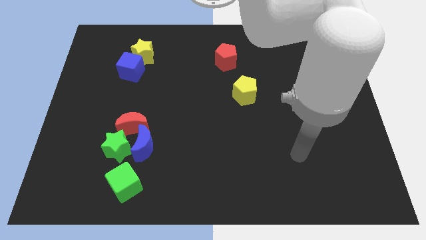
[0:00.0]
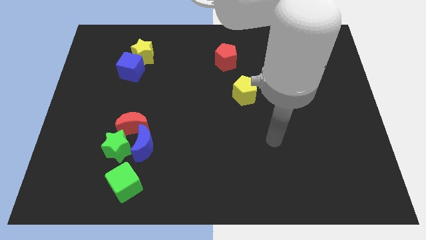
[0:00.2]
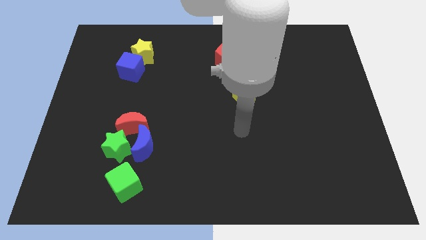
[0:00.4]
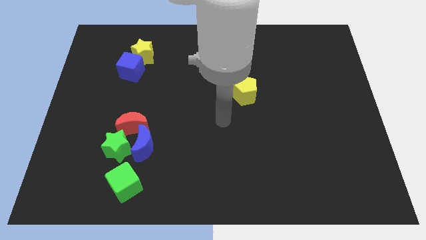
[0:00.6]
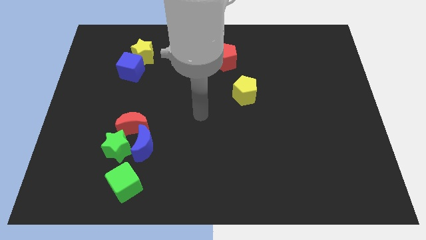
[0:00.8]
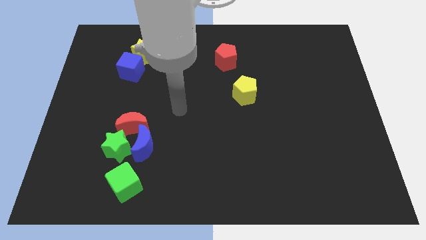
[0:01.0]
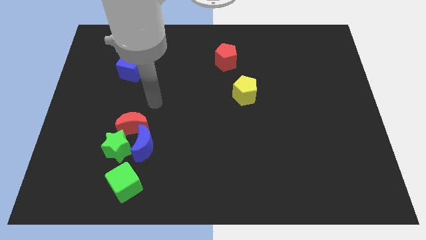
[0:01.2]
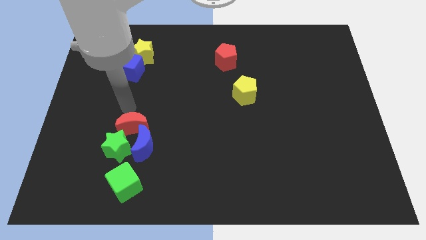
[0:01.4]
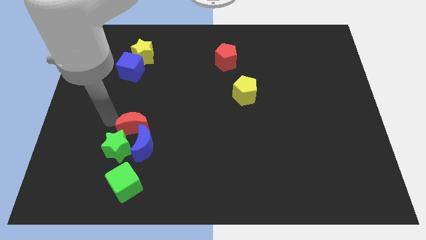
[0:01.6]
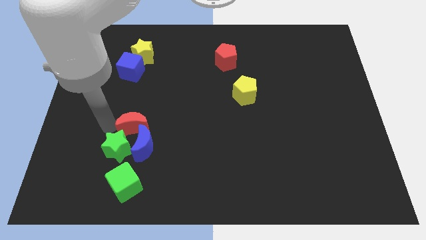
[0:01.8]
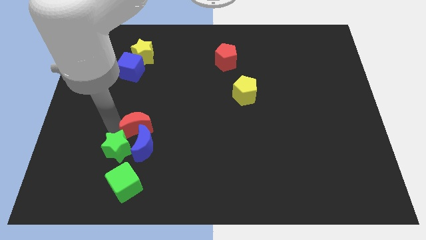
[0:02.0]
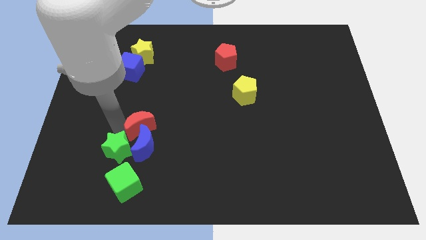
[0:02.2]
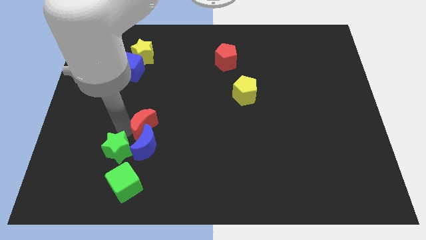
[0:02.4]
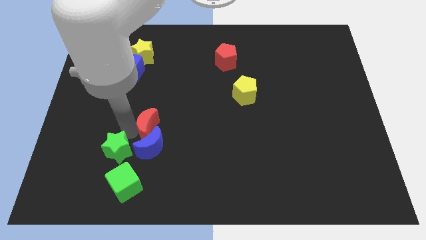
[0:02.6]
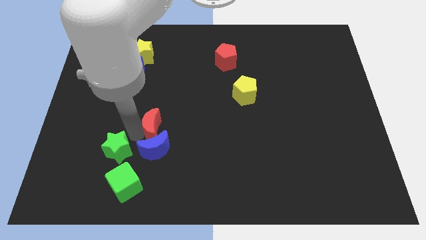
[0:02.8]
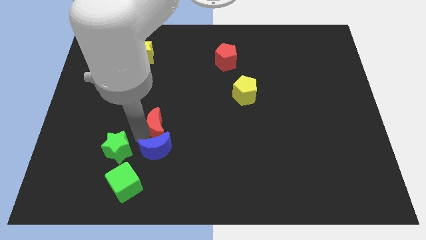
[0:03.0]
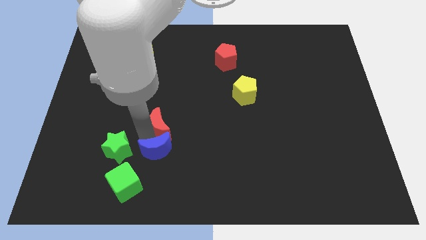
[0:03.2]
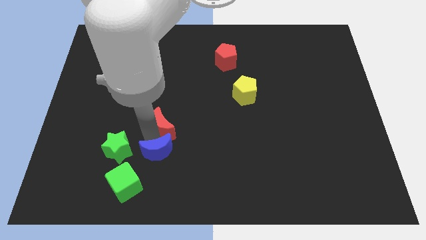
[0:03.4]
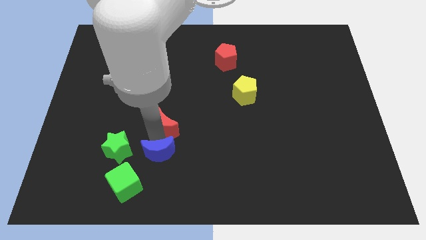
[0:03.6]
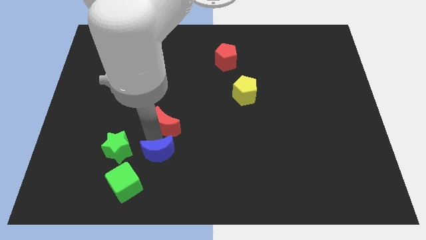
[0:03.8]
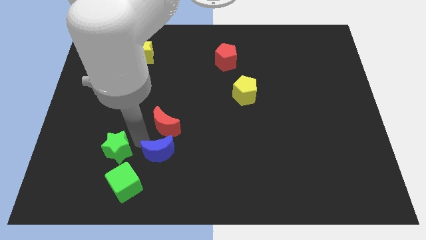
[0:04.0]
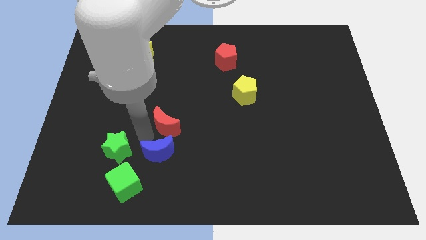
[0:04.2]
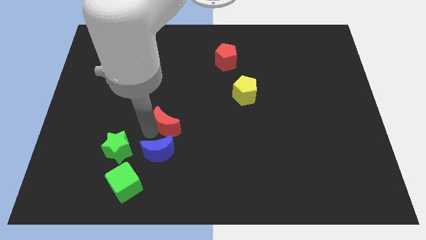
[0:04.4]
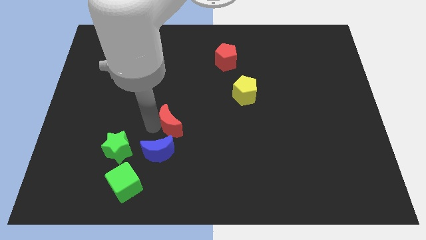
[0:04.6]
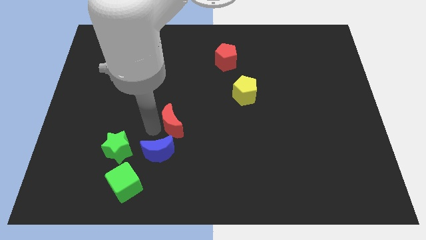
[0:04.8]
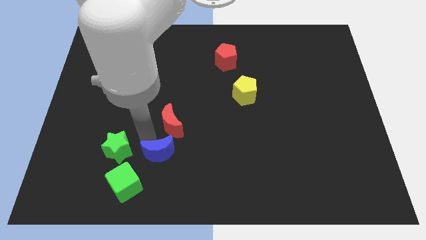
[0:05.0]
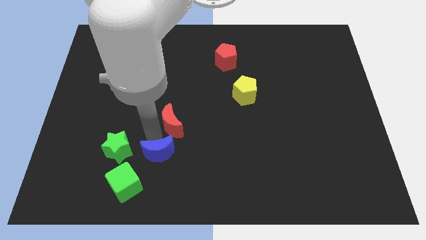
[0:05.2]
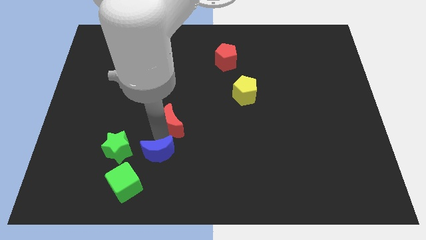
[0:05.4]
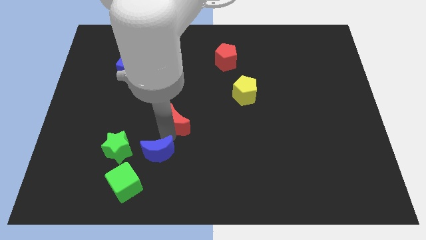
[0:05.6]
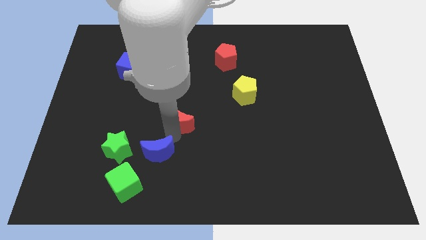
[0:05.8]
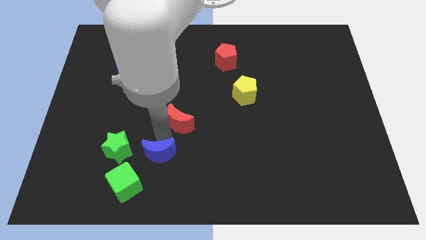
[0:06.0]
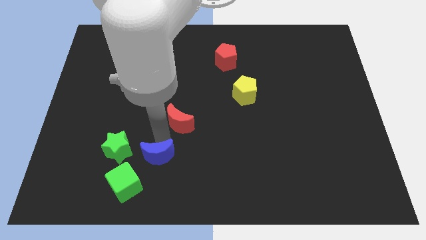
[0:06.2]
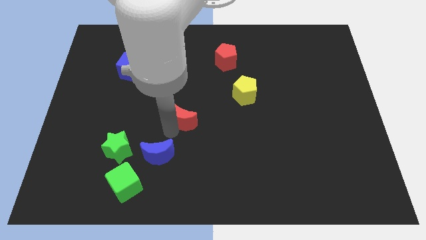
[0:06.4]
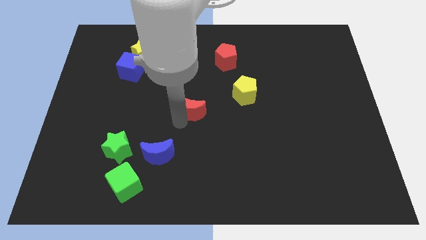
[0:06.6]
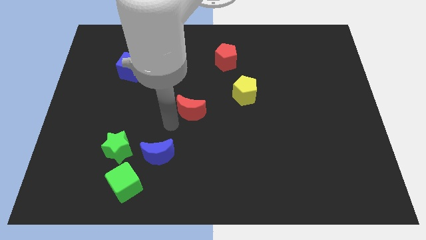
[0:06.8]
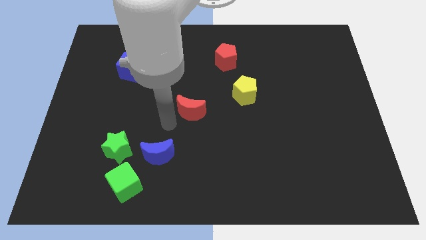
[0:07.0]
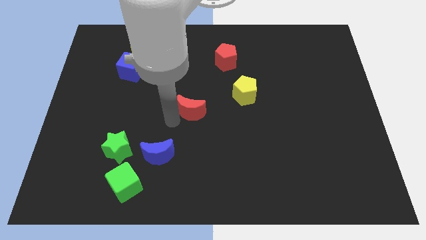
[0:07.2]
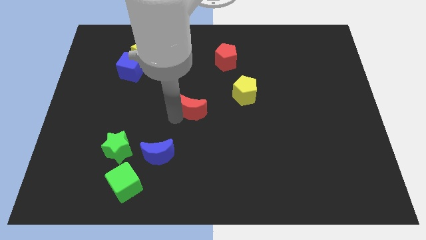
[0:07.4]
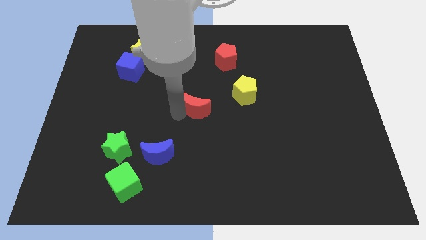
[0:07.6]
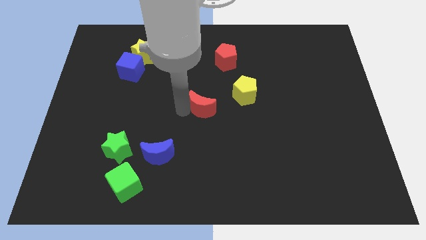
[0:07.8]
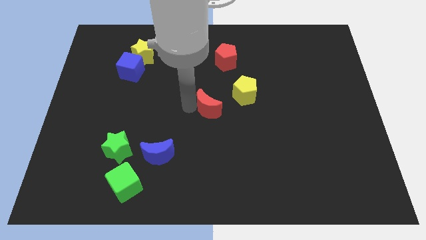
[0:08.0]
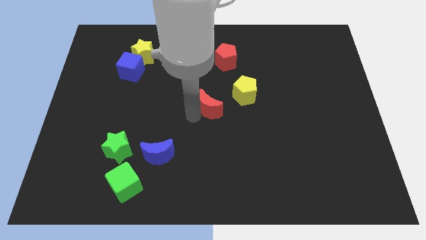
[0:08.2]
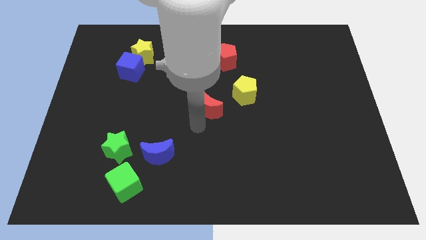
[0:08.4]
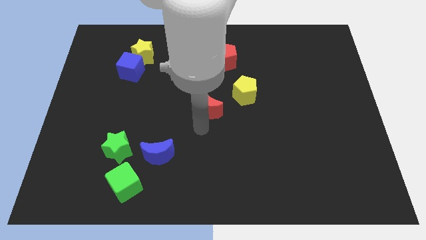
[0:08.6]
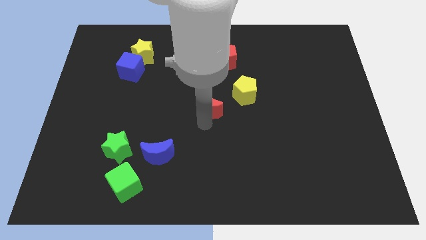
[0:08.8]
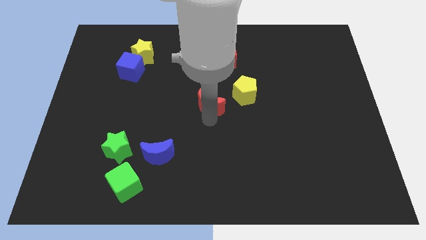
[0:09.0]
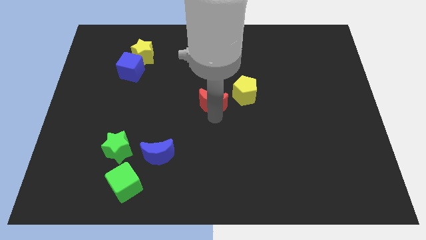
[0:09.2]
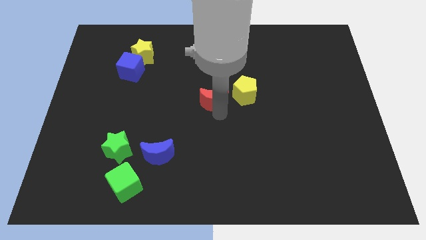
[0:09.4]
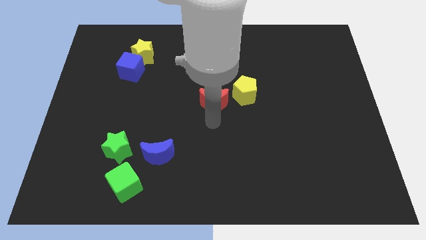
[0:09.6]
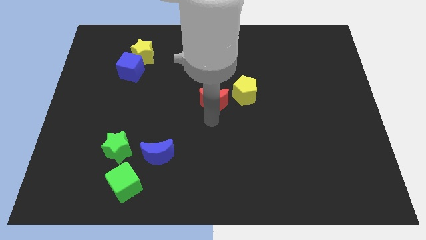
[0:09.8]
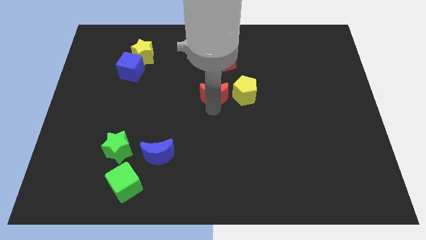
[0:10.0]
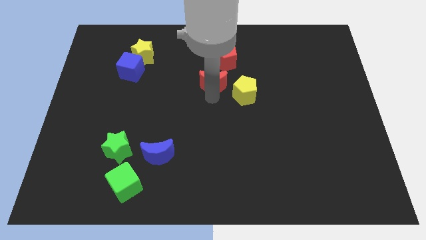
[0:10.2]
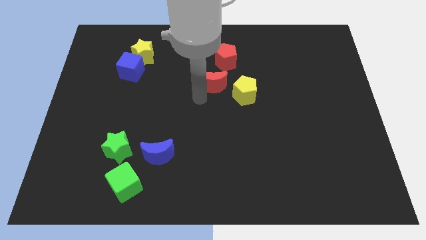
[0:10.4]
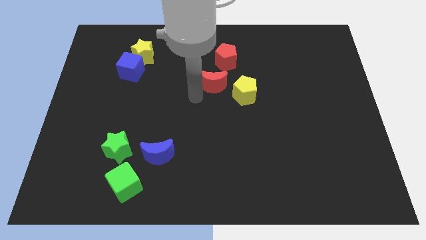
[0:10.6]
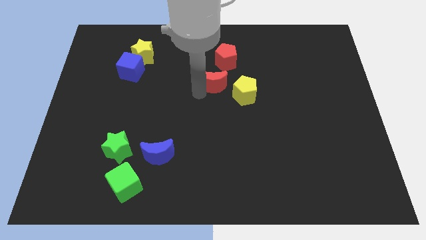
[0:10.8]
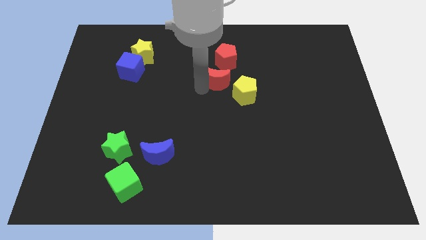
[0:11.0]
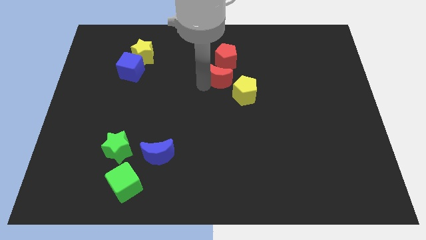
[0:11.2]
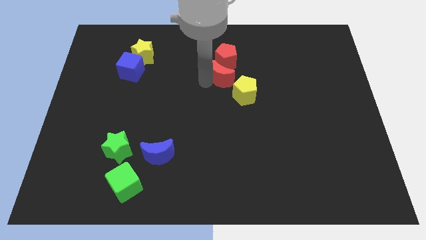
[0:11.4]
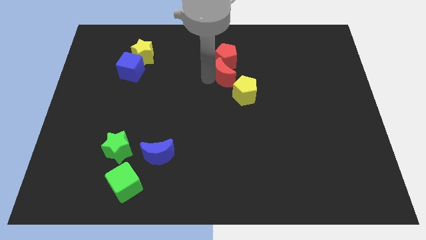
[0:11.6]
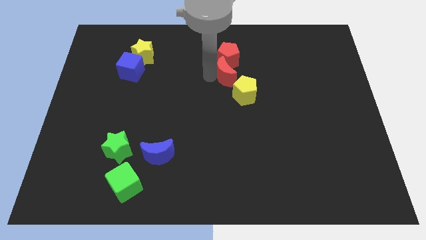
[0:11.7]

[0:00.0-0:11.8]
slide the red moon to the top of the yellow pentagon

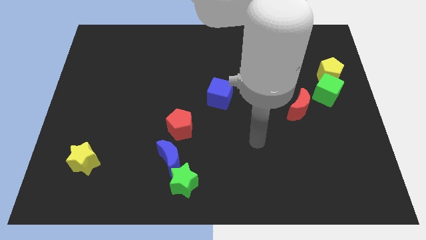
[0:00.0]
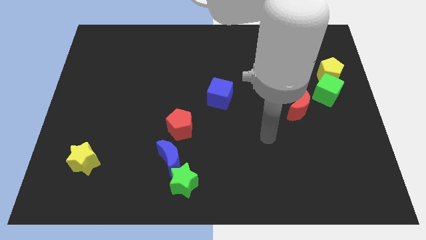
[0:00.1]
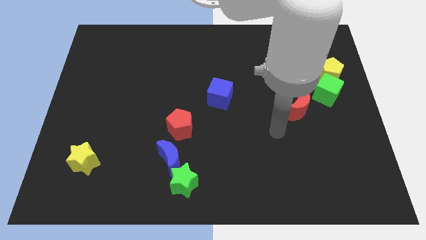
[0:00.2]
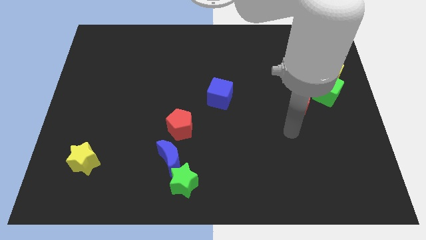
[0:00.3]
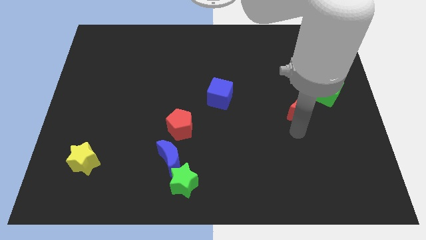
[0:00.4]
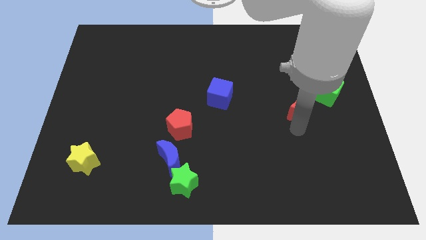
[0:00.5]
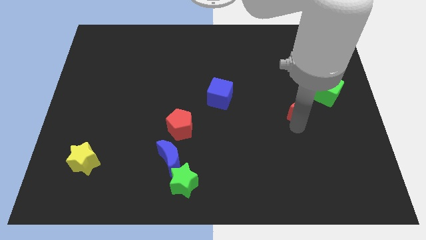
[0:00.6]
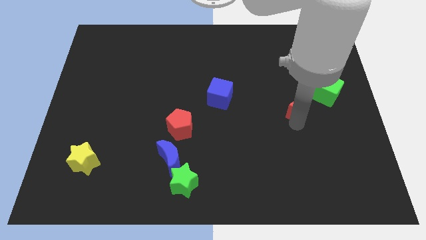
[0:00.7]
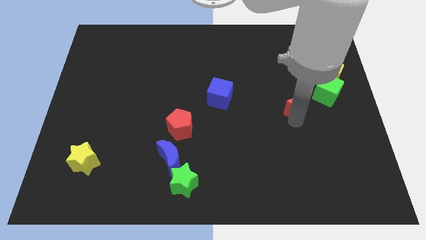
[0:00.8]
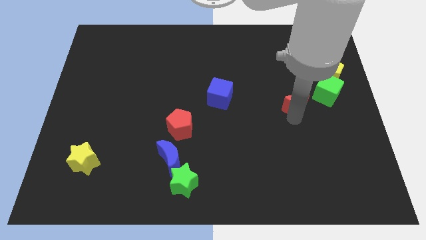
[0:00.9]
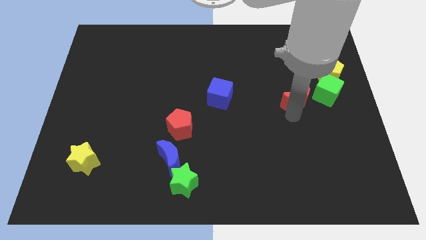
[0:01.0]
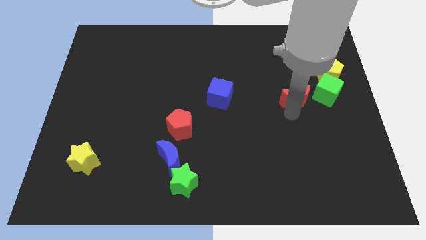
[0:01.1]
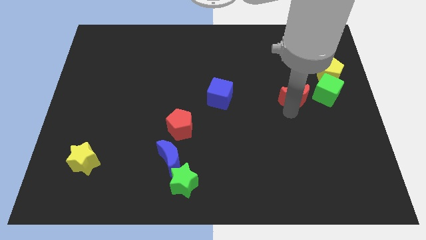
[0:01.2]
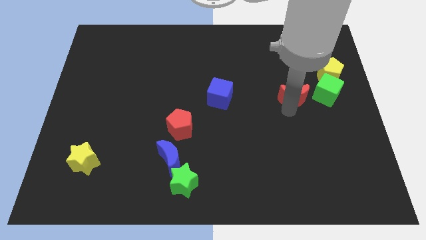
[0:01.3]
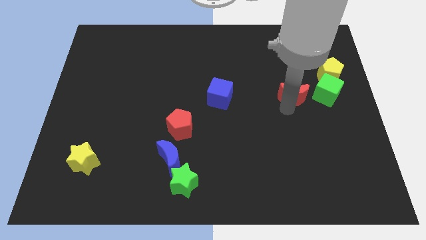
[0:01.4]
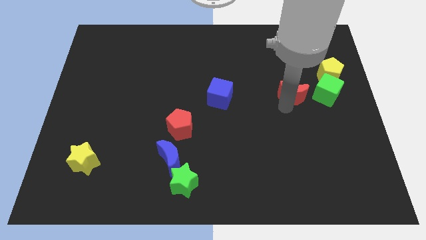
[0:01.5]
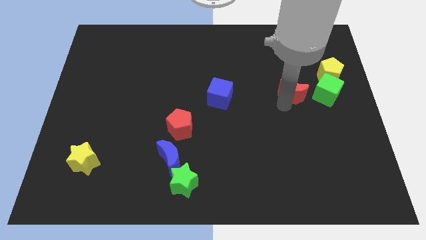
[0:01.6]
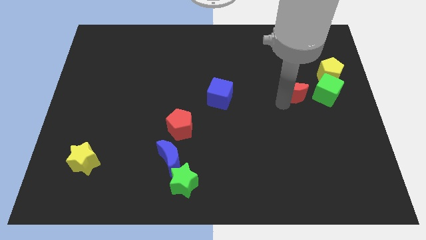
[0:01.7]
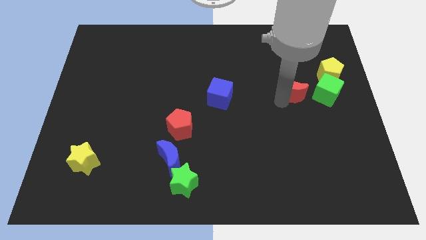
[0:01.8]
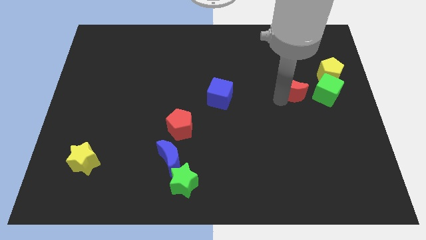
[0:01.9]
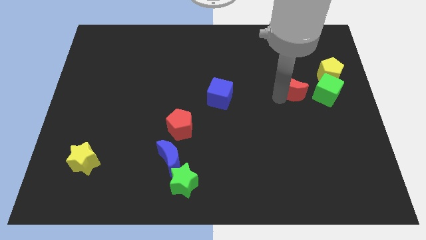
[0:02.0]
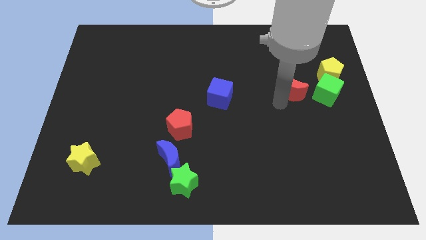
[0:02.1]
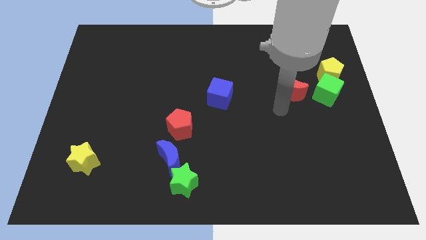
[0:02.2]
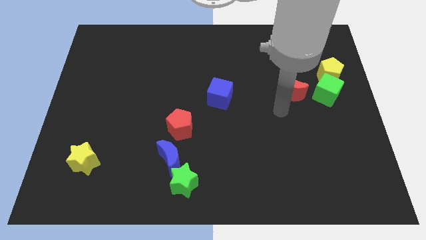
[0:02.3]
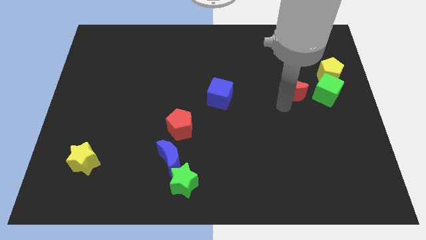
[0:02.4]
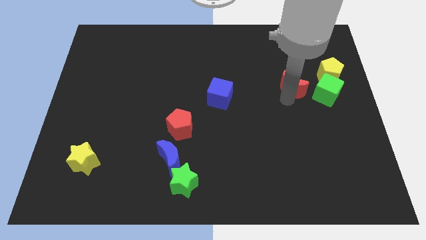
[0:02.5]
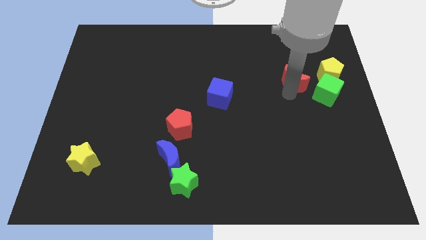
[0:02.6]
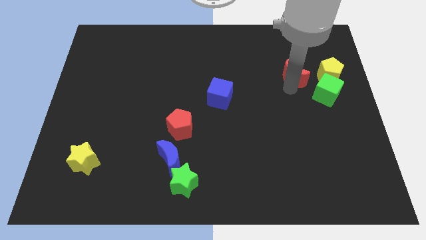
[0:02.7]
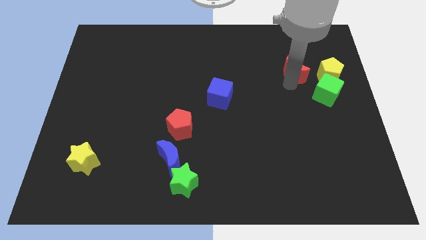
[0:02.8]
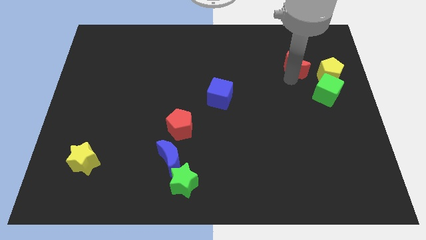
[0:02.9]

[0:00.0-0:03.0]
move the red moon to the top left side of the yellow pentagon
